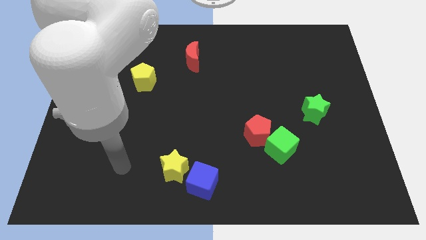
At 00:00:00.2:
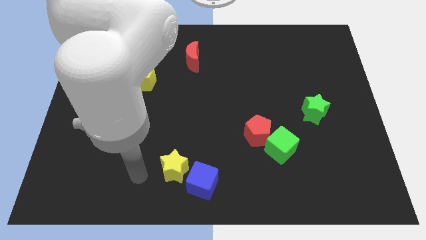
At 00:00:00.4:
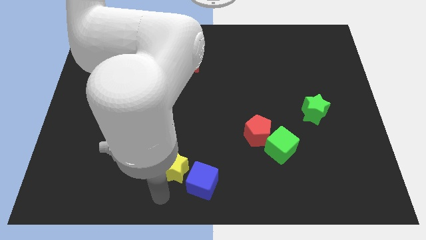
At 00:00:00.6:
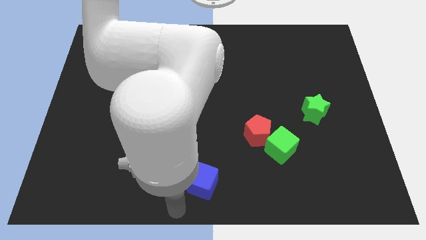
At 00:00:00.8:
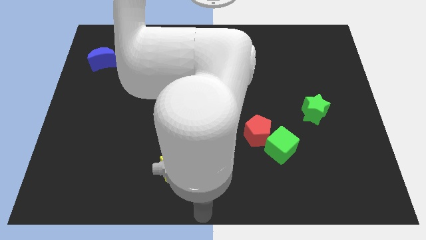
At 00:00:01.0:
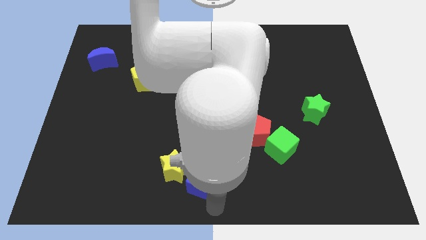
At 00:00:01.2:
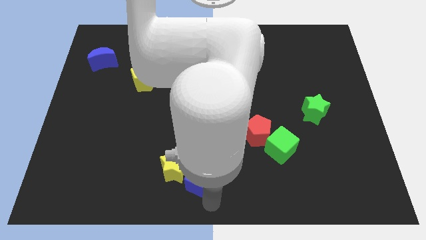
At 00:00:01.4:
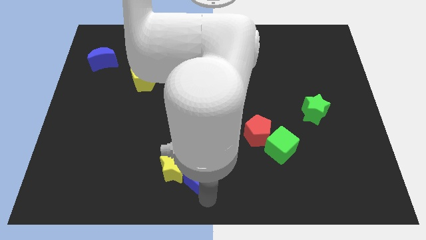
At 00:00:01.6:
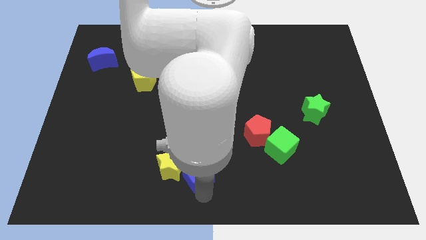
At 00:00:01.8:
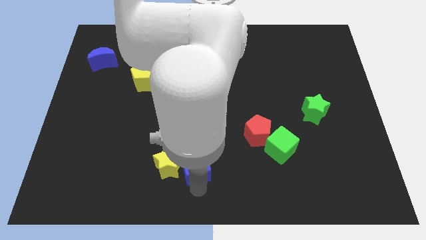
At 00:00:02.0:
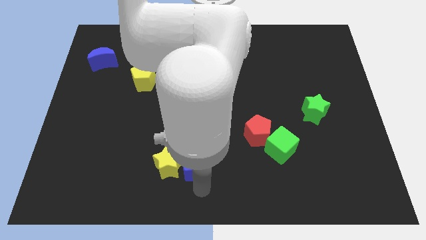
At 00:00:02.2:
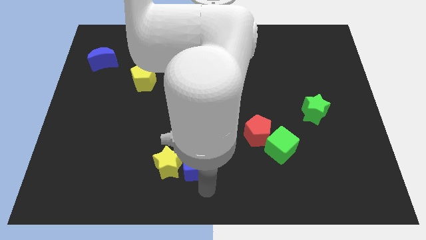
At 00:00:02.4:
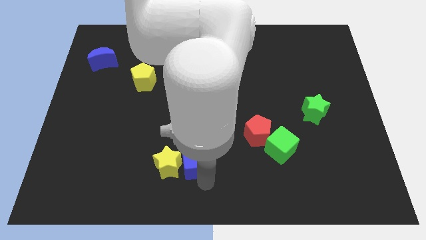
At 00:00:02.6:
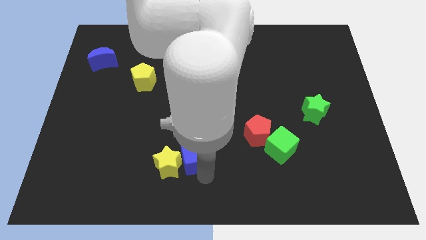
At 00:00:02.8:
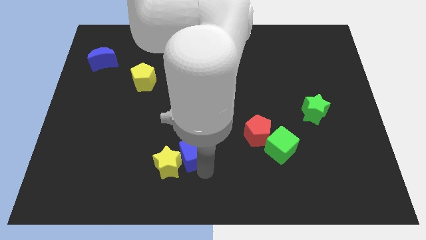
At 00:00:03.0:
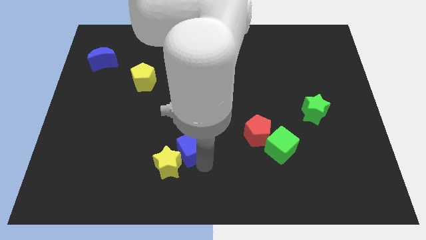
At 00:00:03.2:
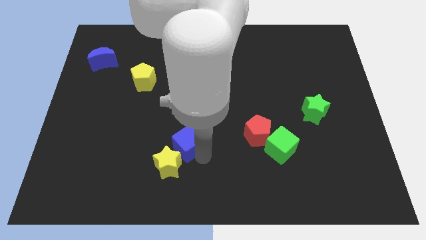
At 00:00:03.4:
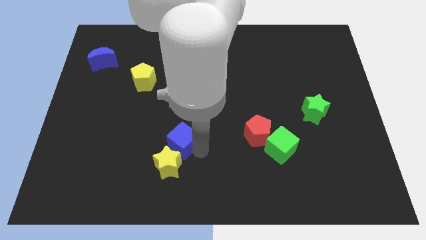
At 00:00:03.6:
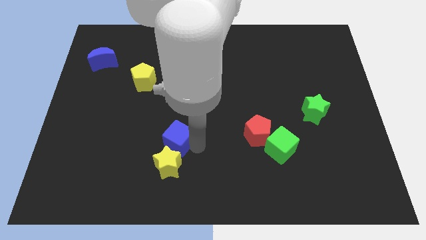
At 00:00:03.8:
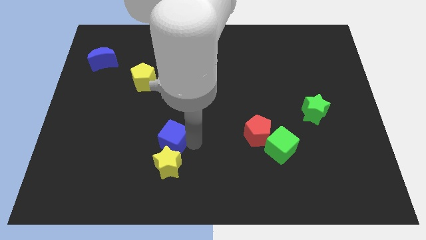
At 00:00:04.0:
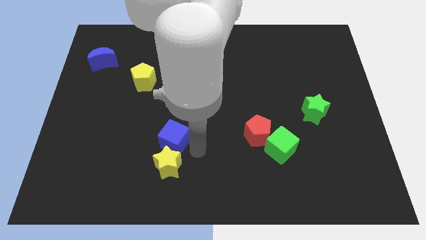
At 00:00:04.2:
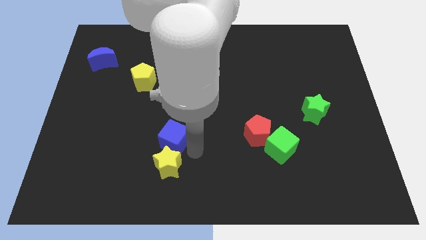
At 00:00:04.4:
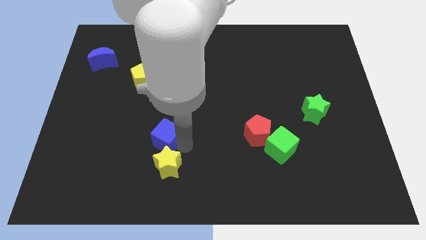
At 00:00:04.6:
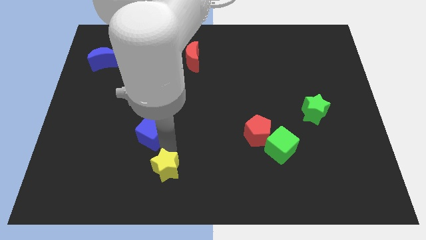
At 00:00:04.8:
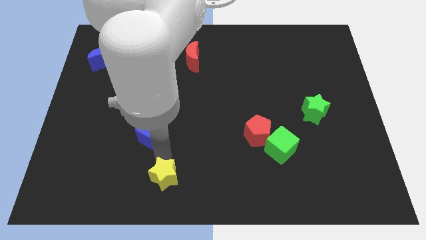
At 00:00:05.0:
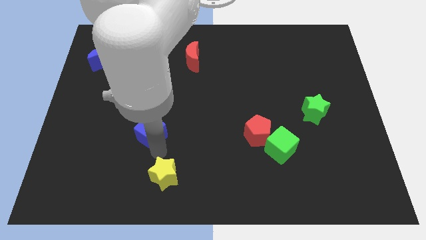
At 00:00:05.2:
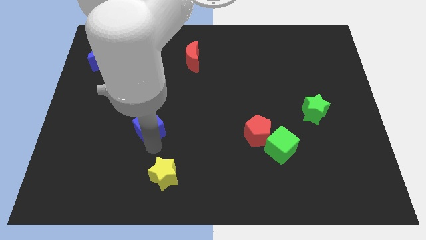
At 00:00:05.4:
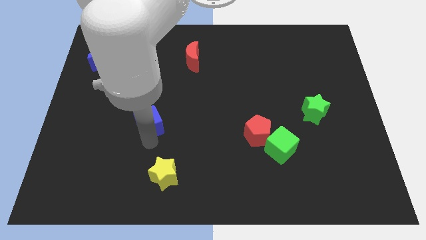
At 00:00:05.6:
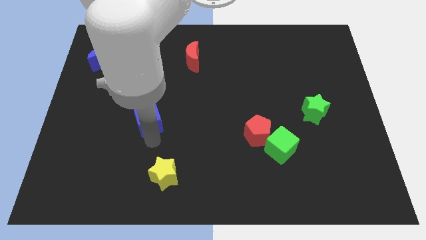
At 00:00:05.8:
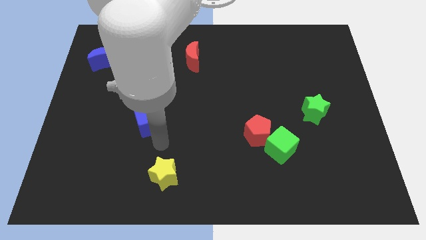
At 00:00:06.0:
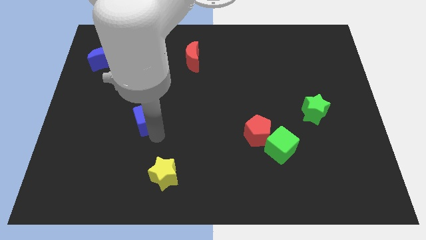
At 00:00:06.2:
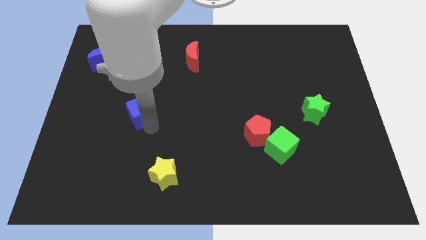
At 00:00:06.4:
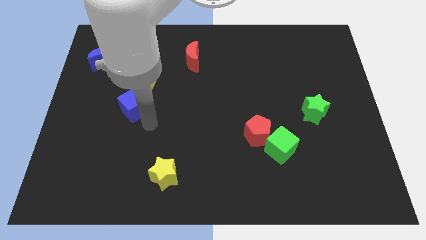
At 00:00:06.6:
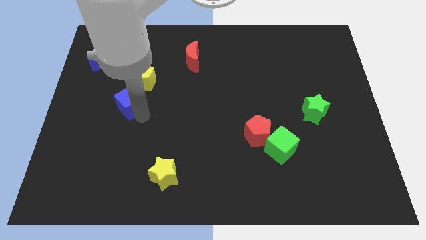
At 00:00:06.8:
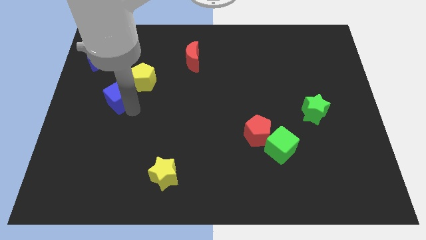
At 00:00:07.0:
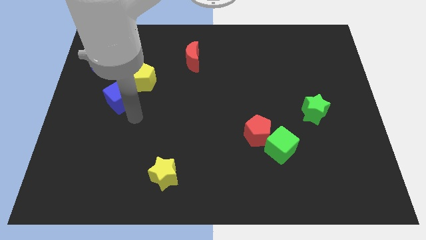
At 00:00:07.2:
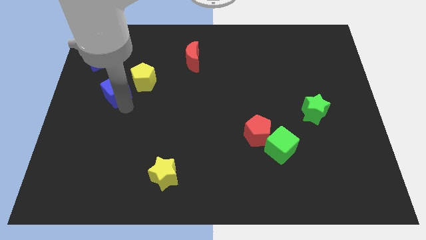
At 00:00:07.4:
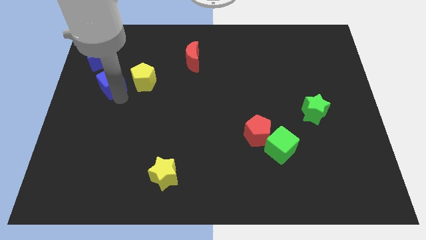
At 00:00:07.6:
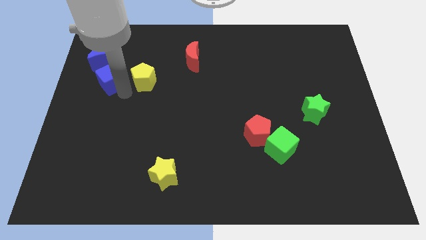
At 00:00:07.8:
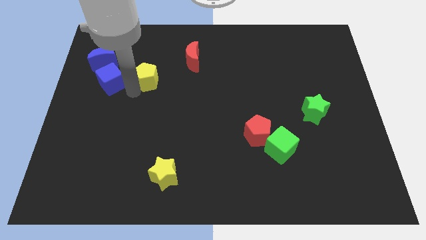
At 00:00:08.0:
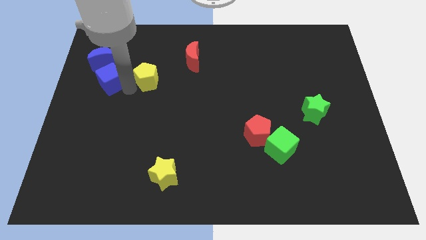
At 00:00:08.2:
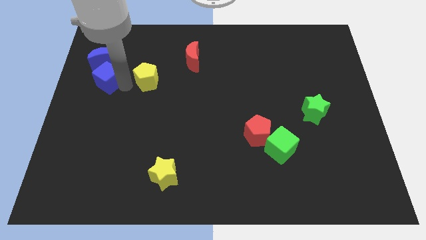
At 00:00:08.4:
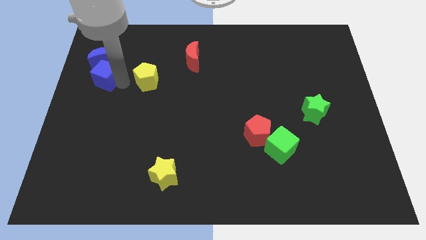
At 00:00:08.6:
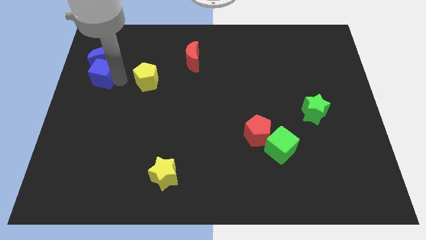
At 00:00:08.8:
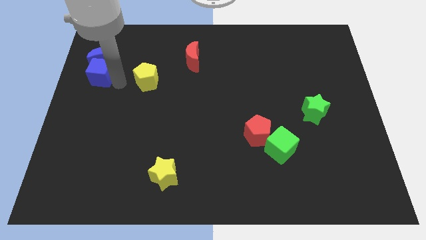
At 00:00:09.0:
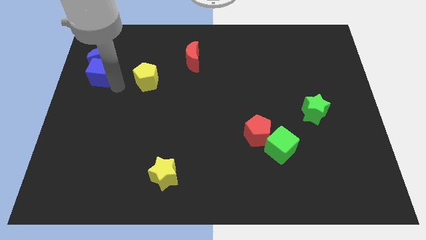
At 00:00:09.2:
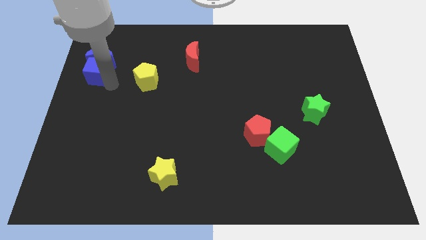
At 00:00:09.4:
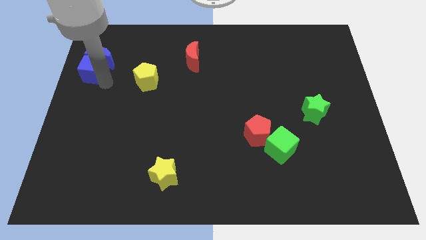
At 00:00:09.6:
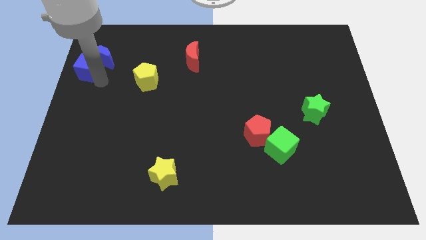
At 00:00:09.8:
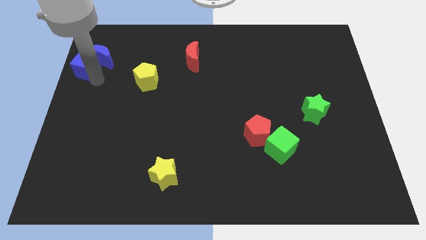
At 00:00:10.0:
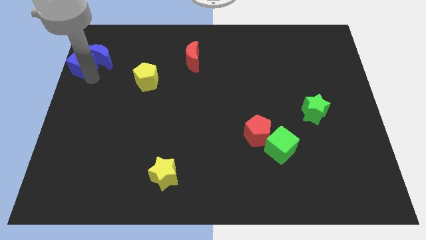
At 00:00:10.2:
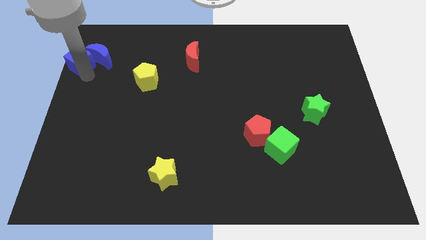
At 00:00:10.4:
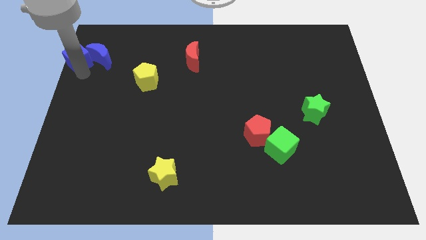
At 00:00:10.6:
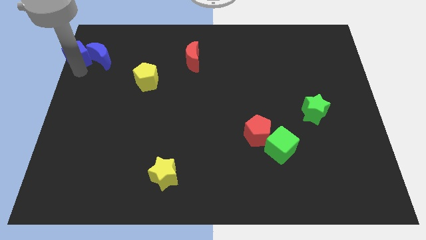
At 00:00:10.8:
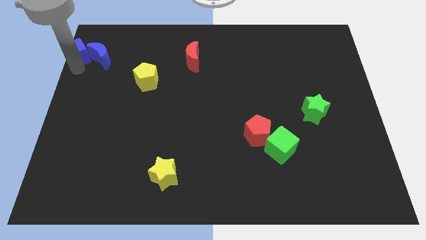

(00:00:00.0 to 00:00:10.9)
slide the blue cube to the top left

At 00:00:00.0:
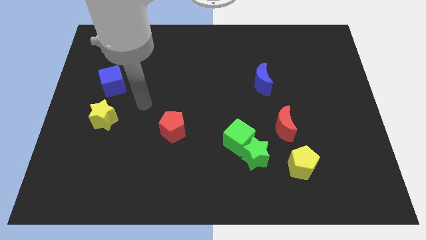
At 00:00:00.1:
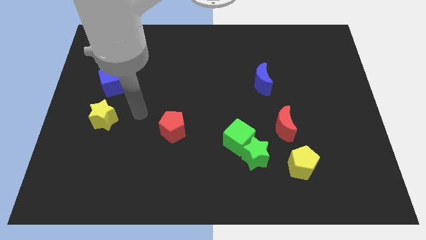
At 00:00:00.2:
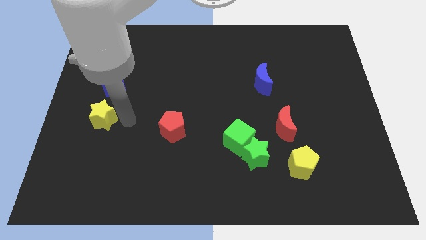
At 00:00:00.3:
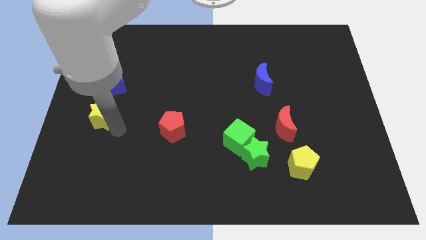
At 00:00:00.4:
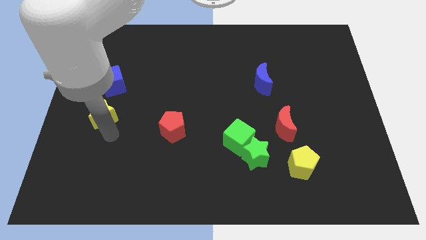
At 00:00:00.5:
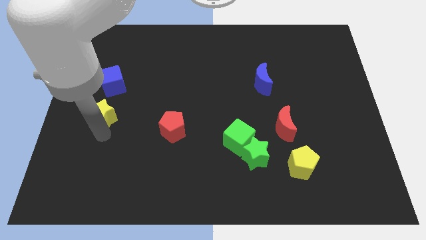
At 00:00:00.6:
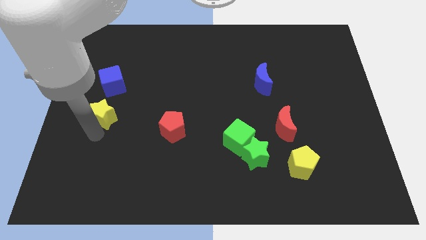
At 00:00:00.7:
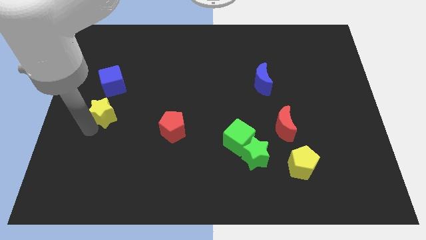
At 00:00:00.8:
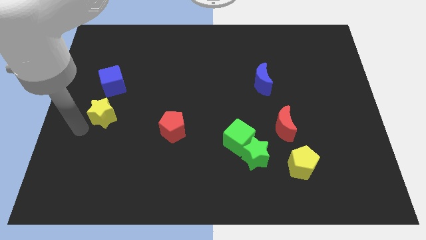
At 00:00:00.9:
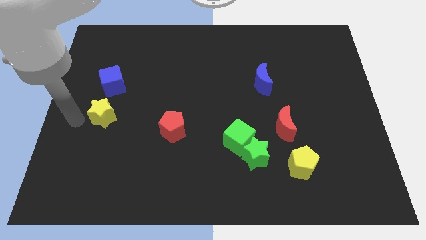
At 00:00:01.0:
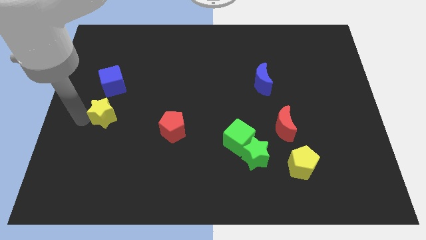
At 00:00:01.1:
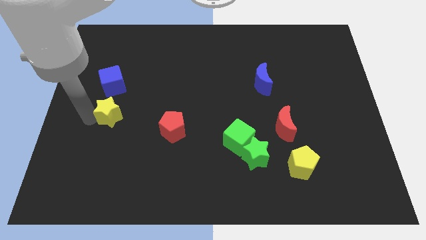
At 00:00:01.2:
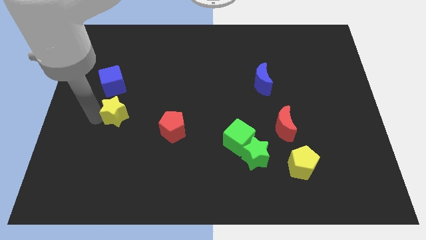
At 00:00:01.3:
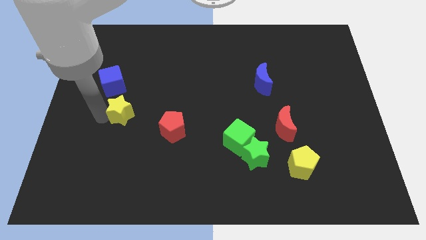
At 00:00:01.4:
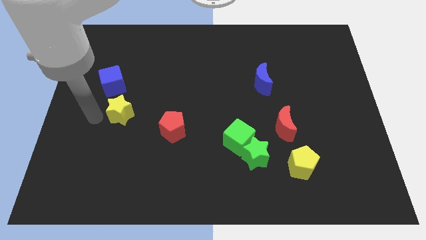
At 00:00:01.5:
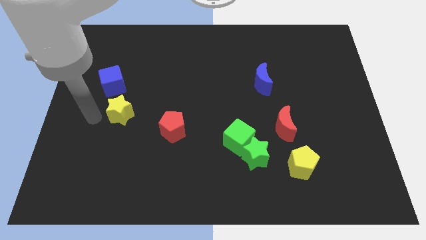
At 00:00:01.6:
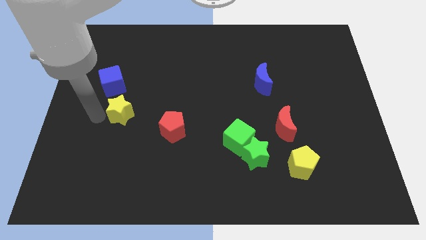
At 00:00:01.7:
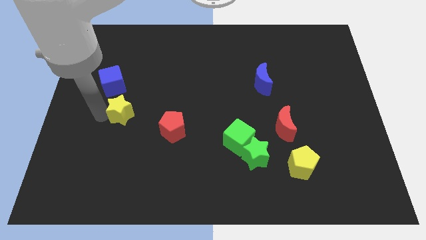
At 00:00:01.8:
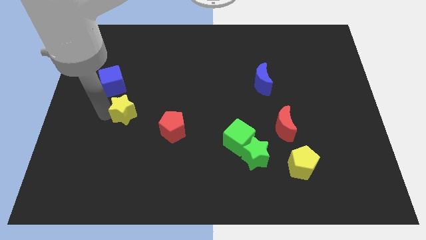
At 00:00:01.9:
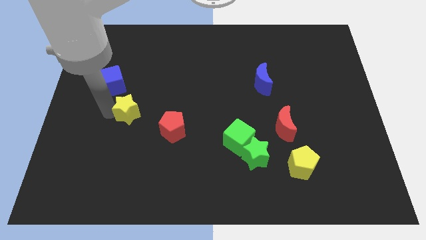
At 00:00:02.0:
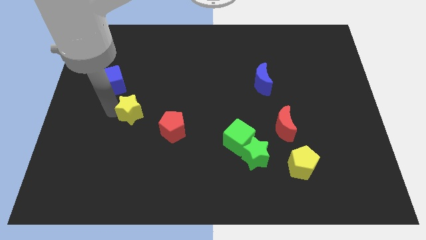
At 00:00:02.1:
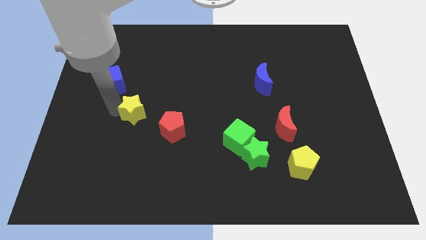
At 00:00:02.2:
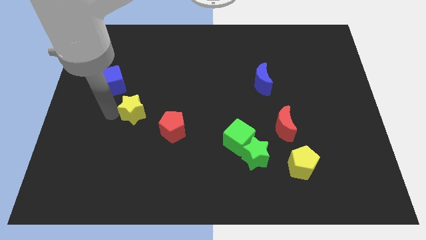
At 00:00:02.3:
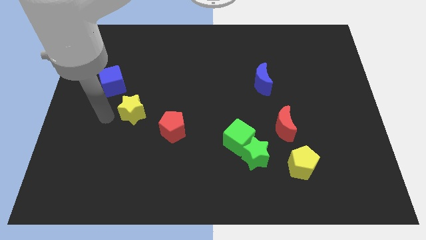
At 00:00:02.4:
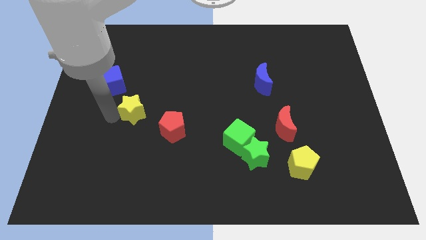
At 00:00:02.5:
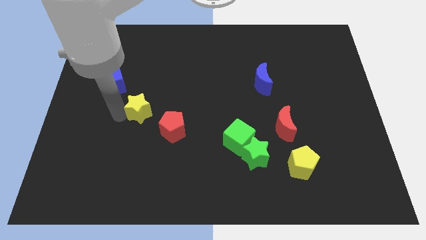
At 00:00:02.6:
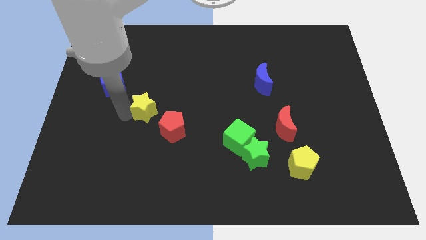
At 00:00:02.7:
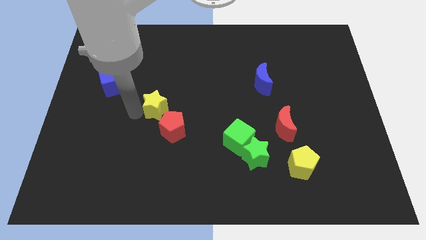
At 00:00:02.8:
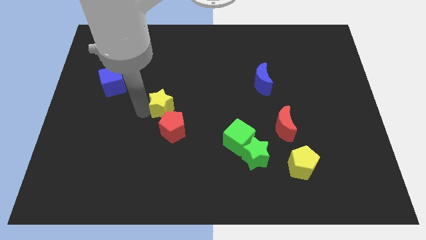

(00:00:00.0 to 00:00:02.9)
move the yellow star to the center of the board
